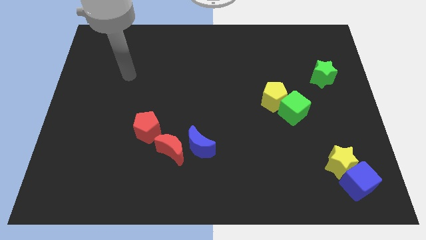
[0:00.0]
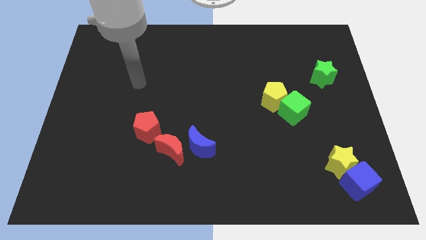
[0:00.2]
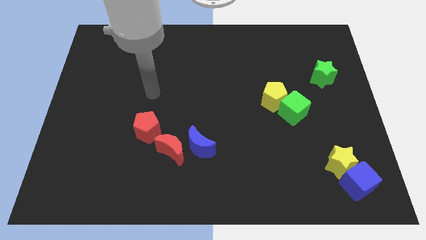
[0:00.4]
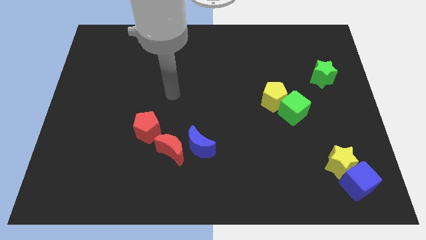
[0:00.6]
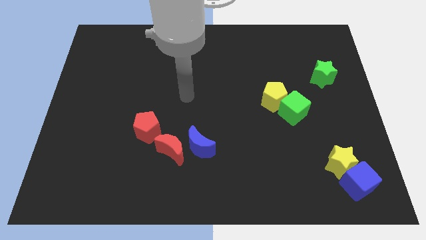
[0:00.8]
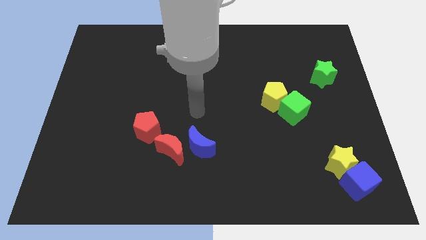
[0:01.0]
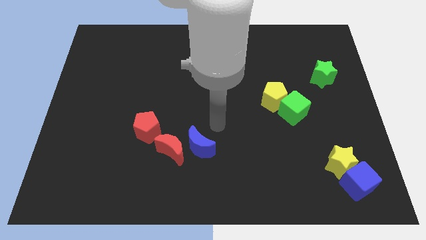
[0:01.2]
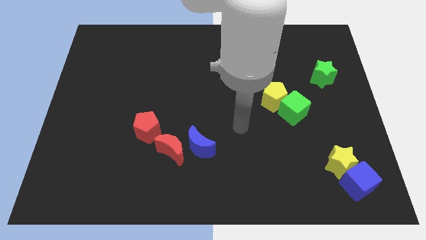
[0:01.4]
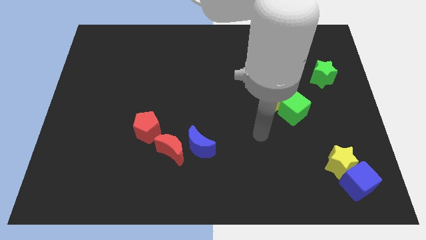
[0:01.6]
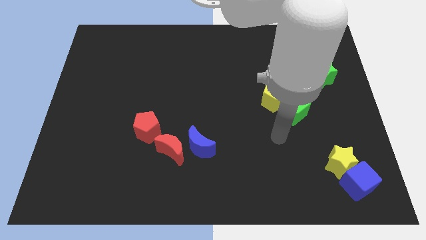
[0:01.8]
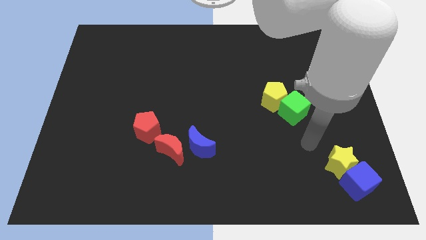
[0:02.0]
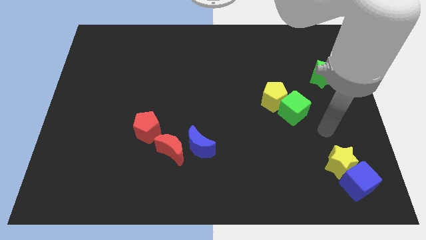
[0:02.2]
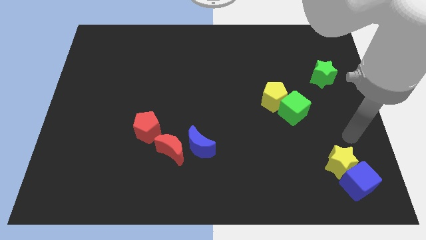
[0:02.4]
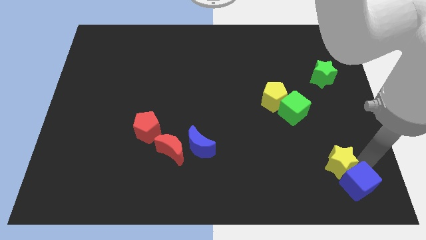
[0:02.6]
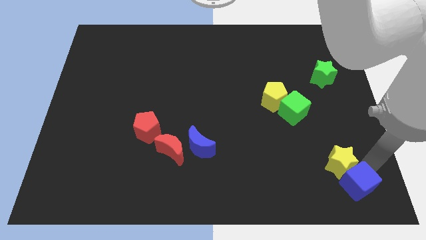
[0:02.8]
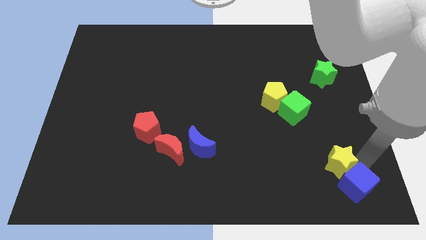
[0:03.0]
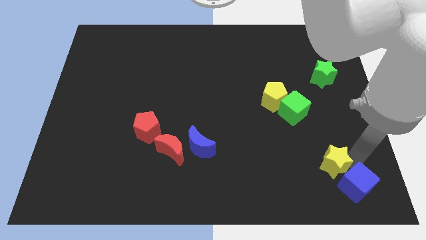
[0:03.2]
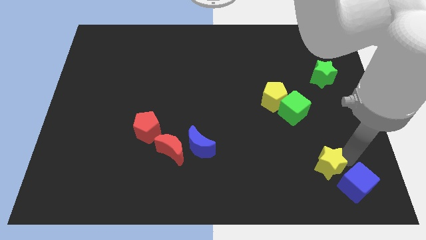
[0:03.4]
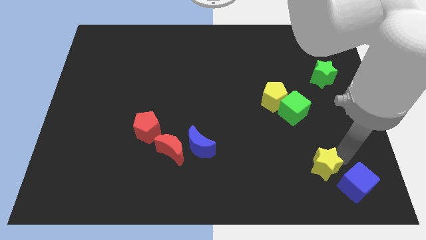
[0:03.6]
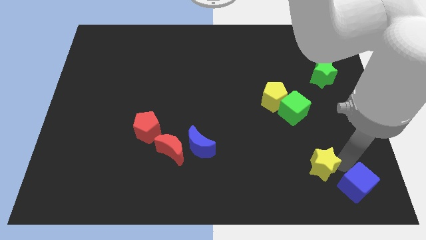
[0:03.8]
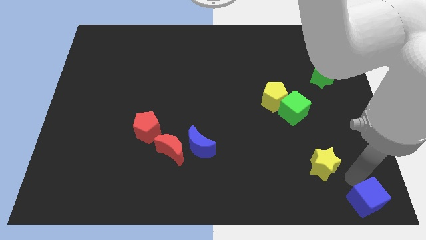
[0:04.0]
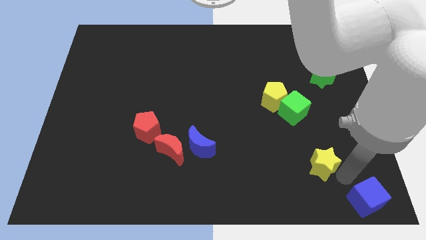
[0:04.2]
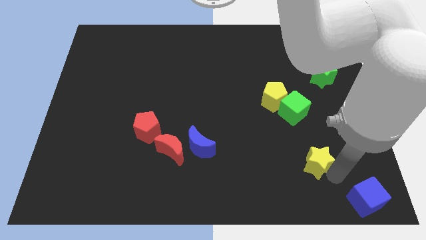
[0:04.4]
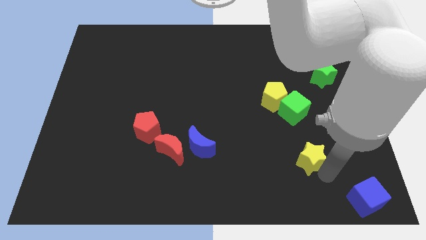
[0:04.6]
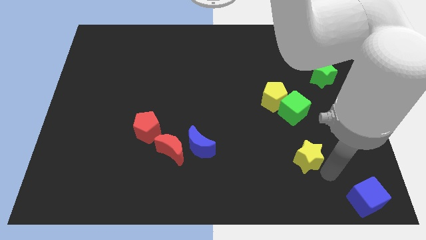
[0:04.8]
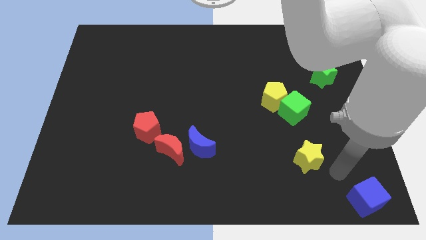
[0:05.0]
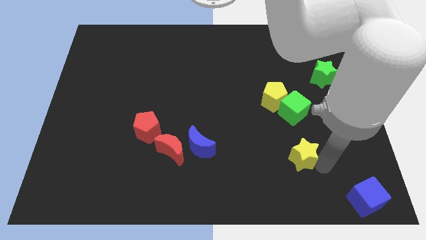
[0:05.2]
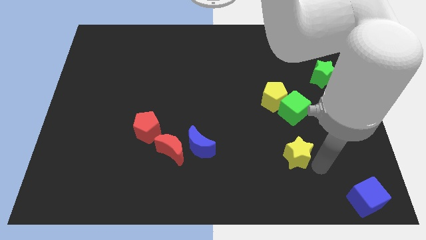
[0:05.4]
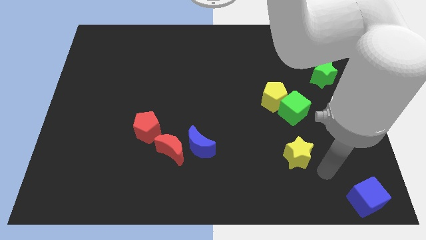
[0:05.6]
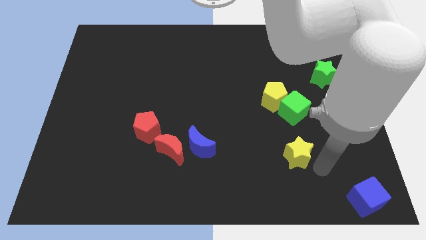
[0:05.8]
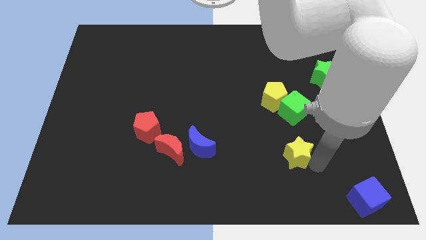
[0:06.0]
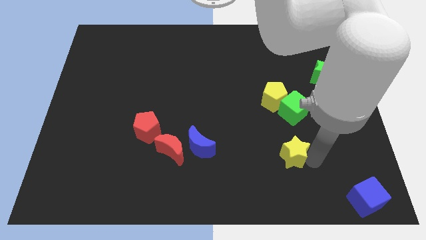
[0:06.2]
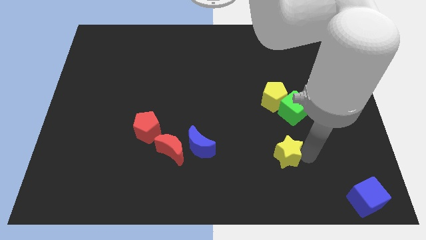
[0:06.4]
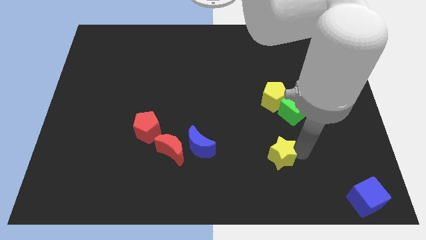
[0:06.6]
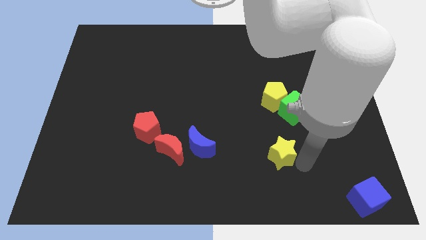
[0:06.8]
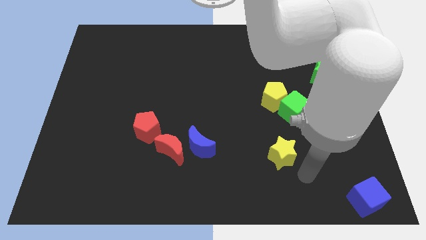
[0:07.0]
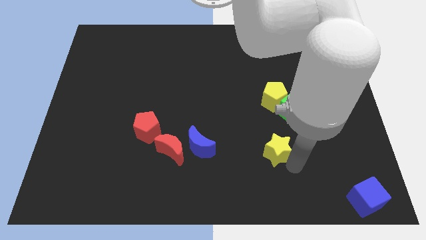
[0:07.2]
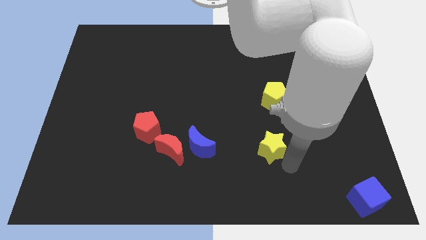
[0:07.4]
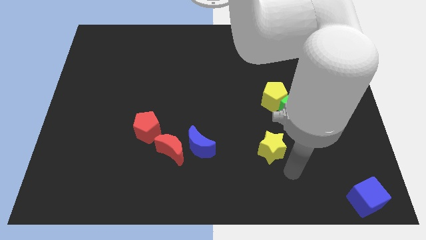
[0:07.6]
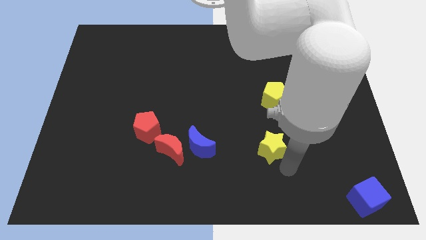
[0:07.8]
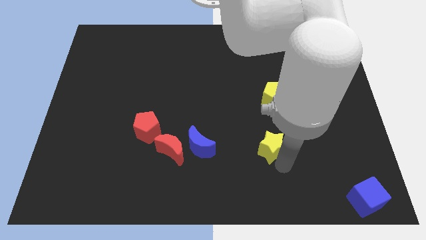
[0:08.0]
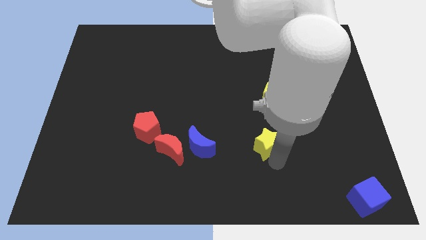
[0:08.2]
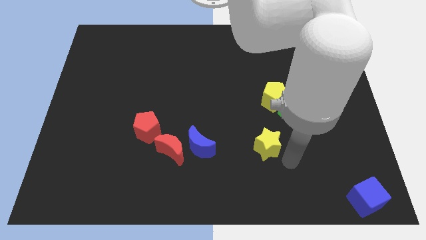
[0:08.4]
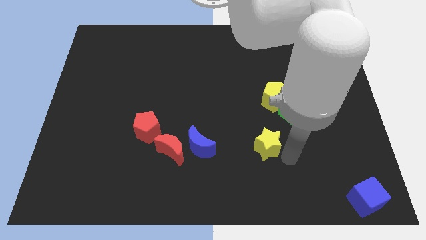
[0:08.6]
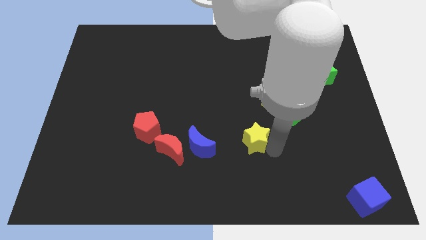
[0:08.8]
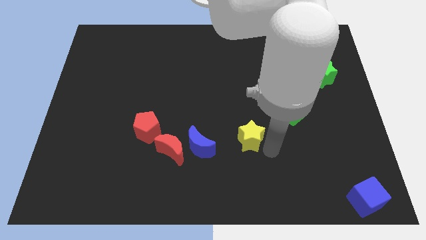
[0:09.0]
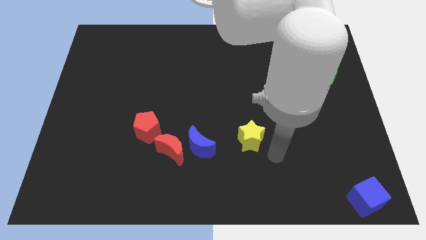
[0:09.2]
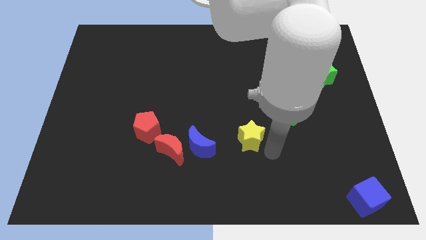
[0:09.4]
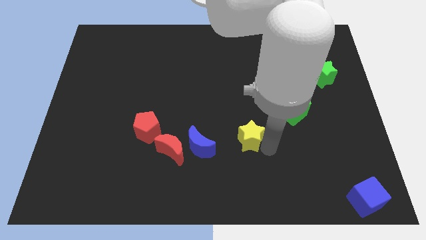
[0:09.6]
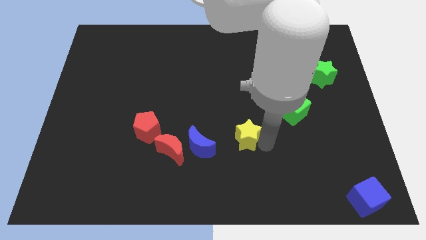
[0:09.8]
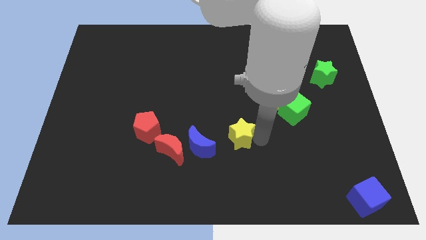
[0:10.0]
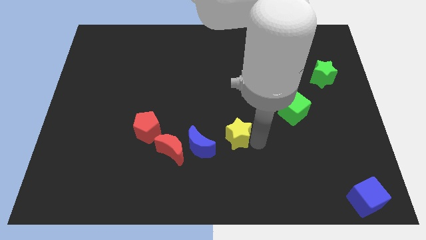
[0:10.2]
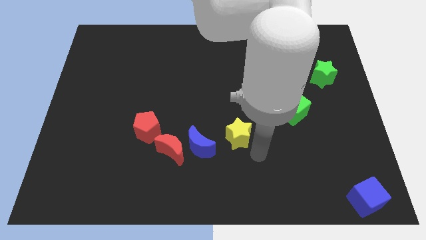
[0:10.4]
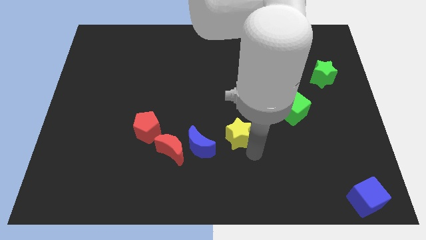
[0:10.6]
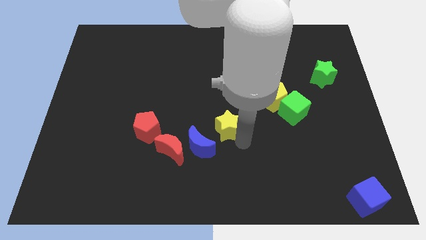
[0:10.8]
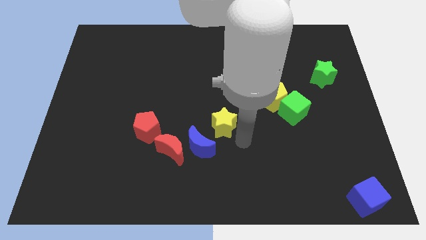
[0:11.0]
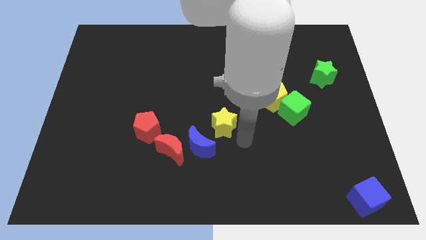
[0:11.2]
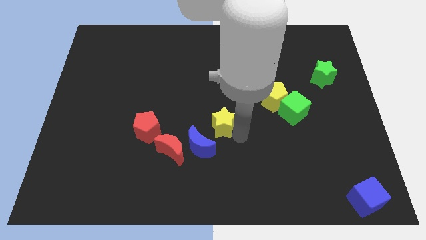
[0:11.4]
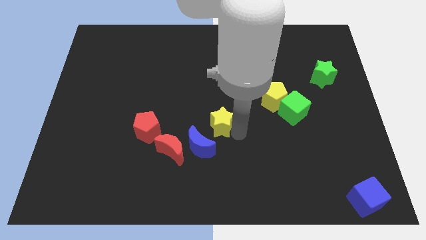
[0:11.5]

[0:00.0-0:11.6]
push the yellow star to the top of the blue moon

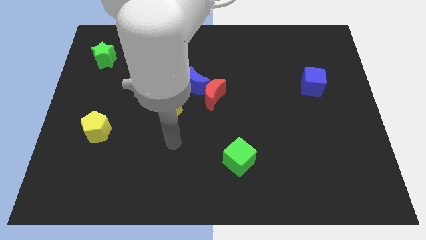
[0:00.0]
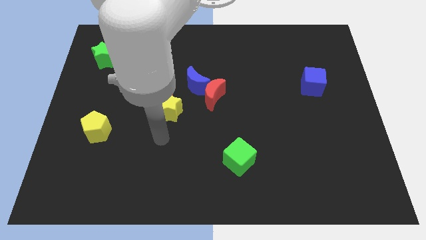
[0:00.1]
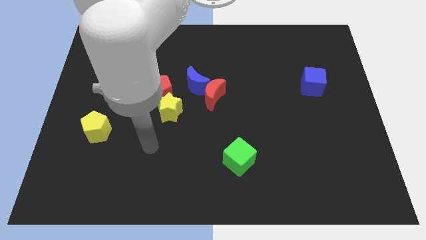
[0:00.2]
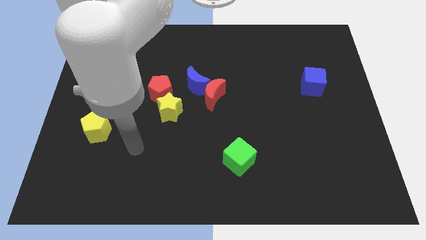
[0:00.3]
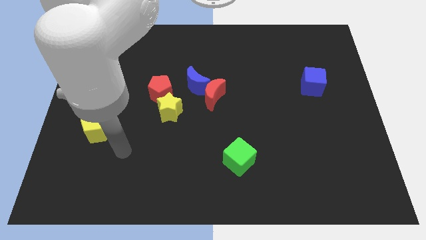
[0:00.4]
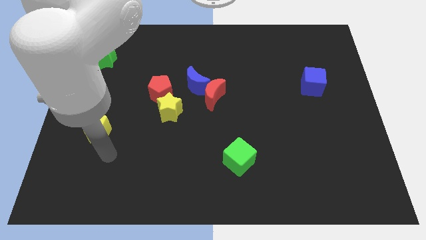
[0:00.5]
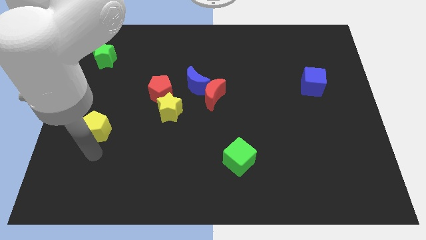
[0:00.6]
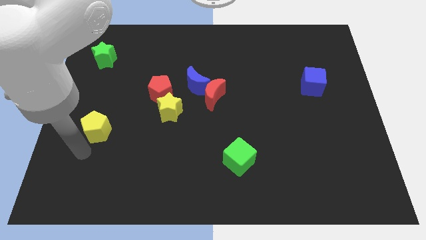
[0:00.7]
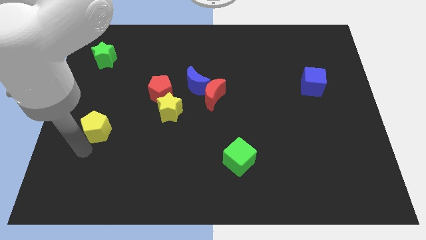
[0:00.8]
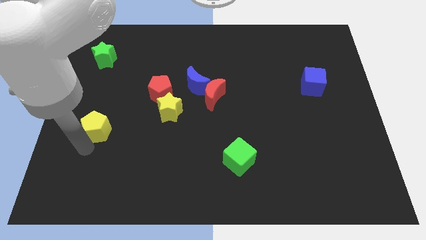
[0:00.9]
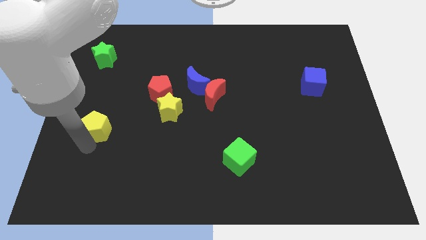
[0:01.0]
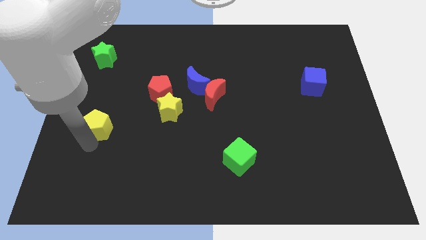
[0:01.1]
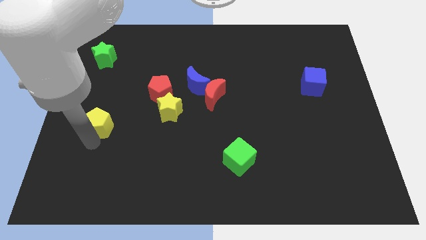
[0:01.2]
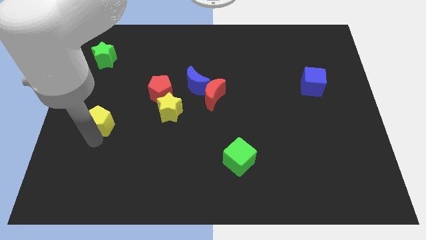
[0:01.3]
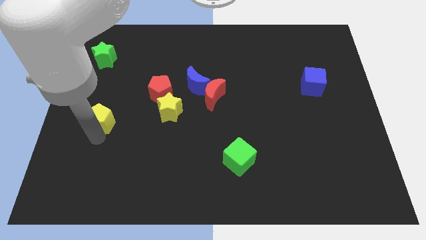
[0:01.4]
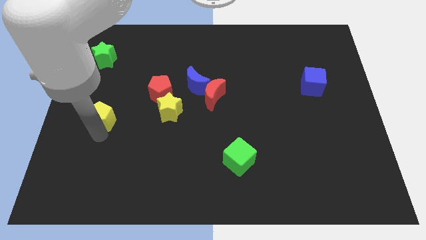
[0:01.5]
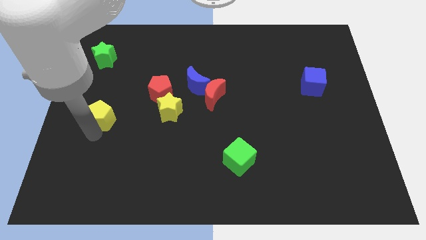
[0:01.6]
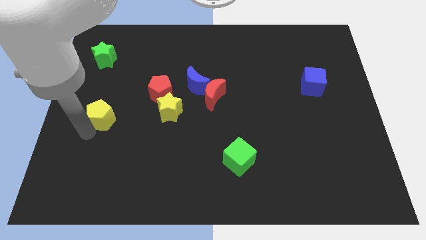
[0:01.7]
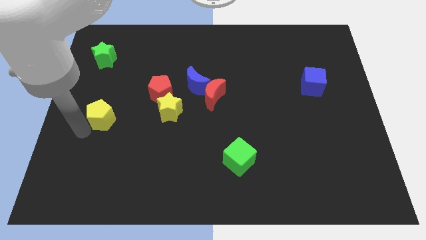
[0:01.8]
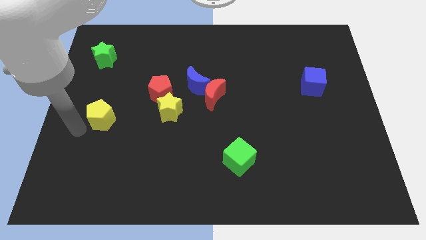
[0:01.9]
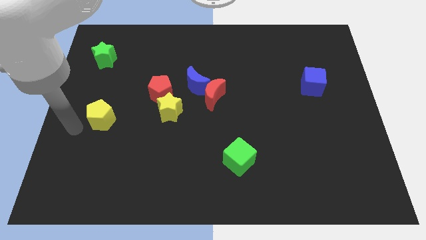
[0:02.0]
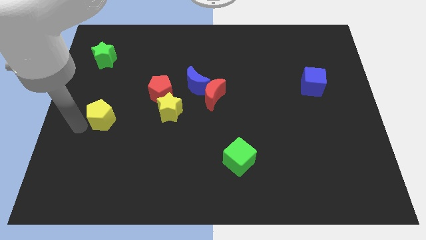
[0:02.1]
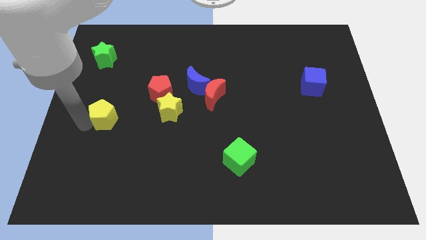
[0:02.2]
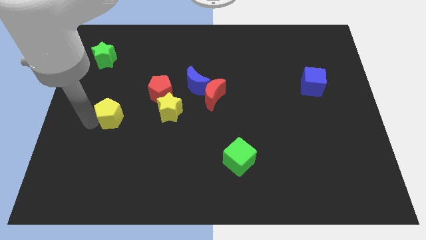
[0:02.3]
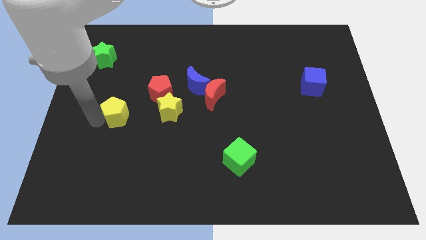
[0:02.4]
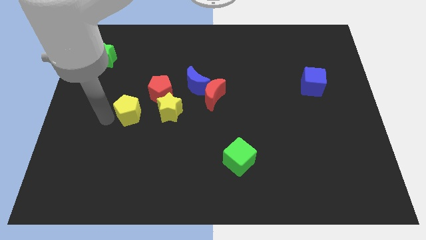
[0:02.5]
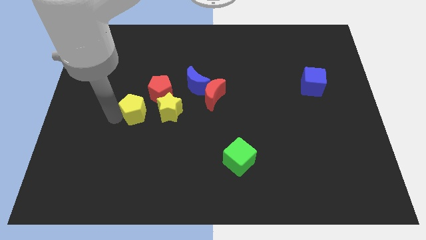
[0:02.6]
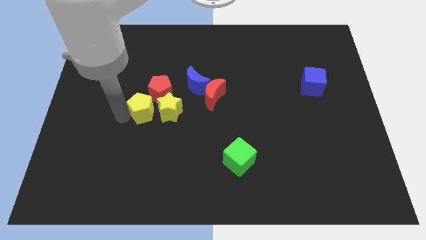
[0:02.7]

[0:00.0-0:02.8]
push the yellow pentagon diagonally up and to the left of the yellow star
